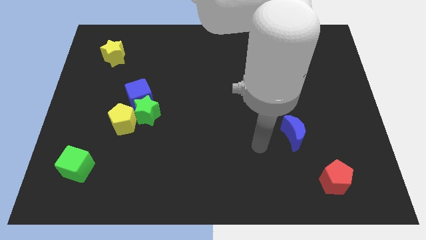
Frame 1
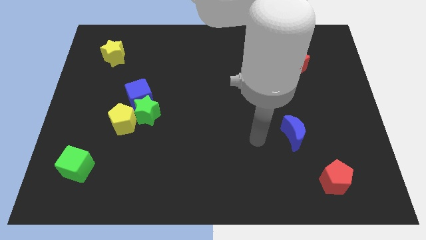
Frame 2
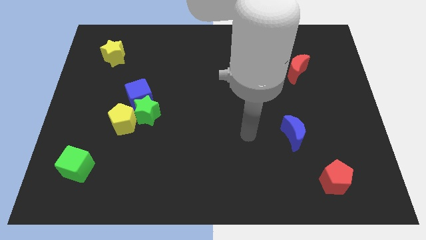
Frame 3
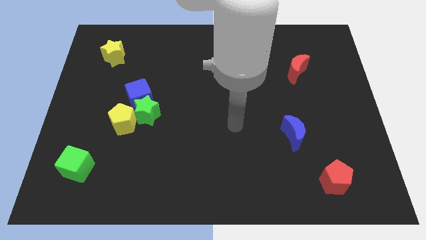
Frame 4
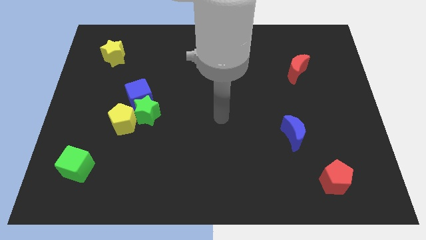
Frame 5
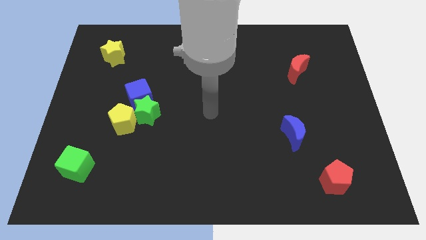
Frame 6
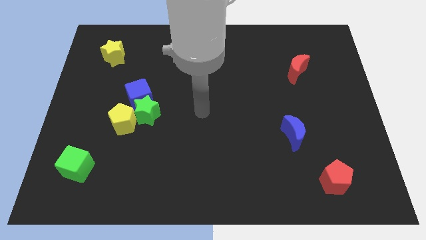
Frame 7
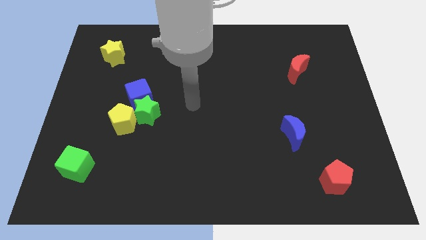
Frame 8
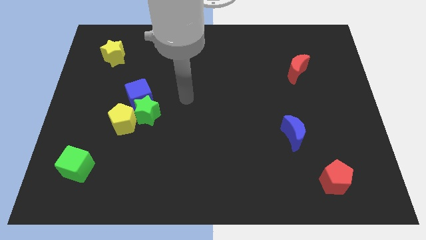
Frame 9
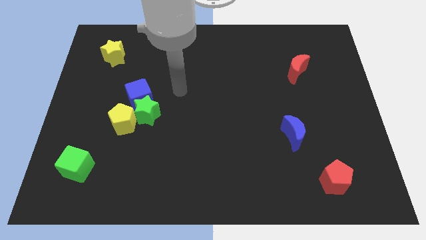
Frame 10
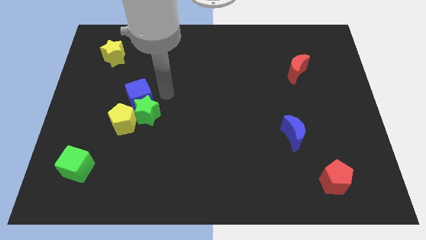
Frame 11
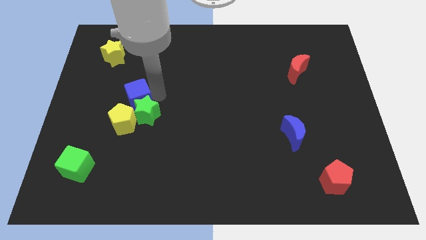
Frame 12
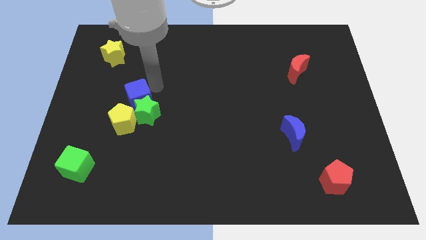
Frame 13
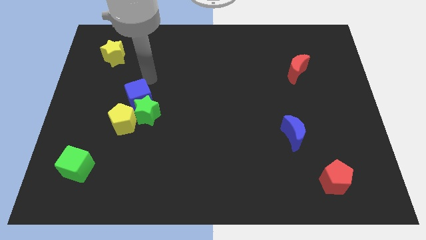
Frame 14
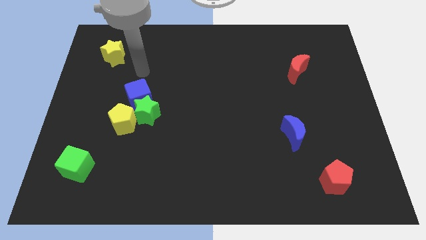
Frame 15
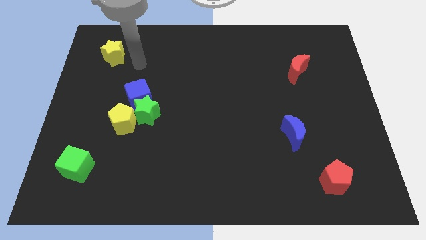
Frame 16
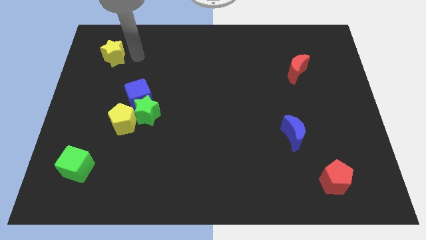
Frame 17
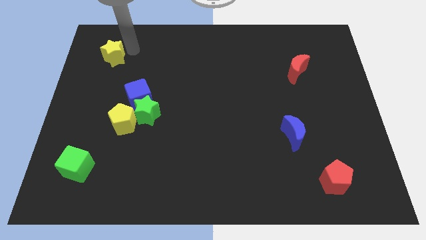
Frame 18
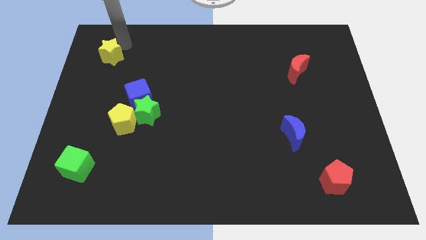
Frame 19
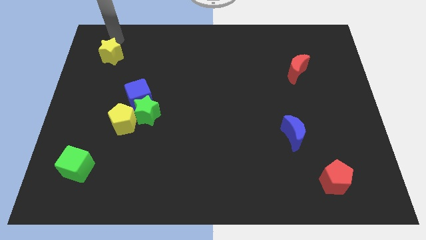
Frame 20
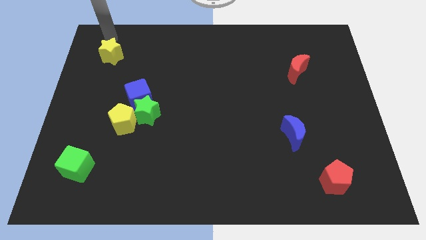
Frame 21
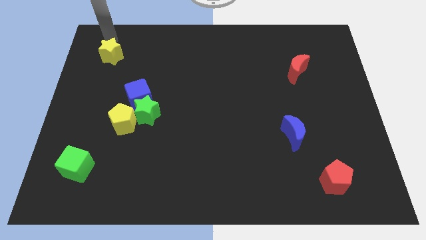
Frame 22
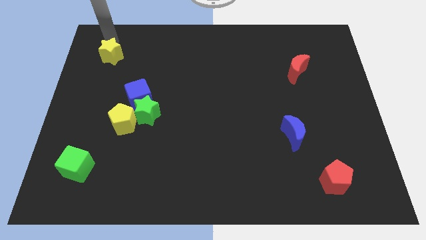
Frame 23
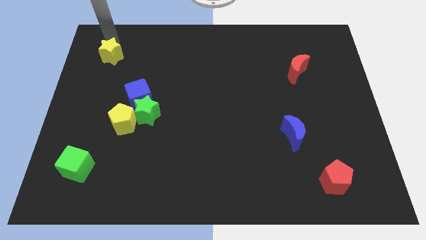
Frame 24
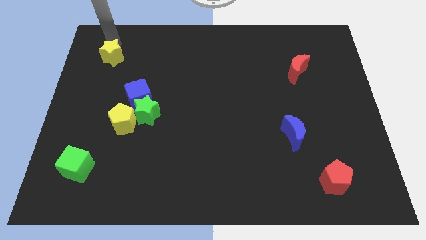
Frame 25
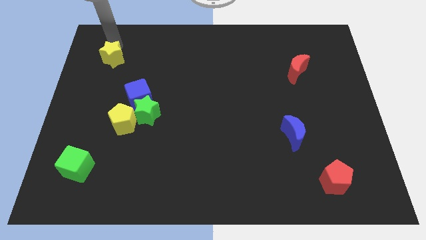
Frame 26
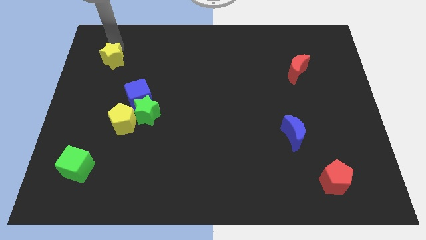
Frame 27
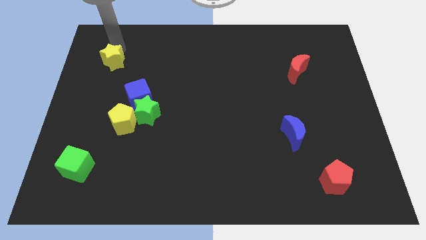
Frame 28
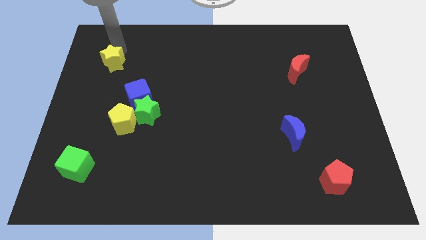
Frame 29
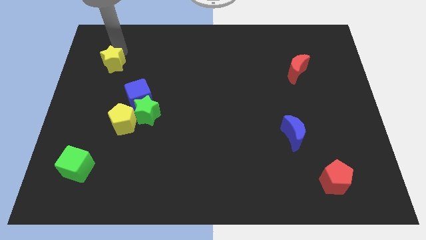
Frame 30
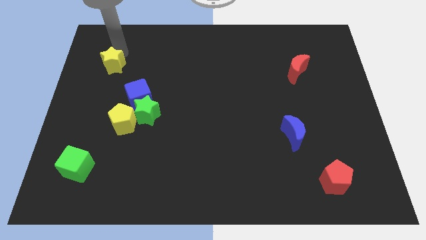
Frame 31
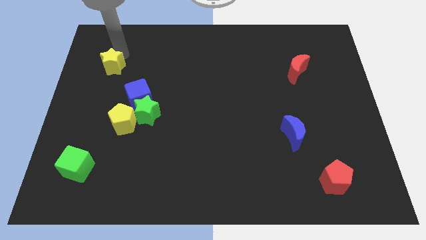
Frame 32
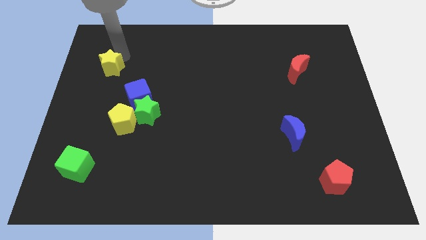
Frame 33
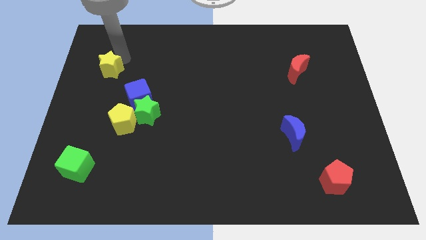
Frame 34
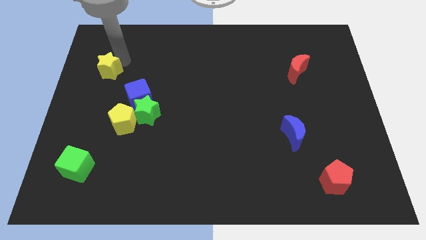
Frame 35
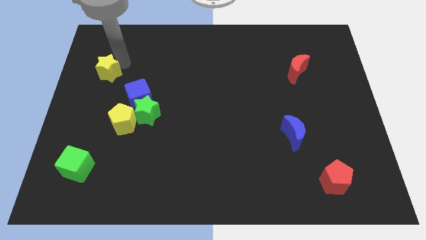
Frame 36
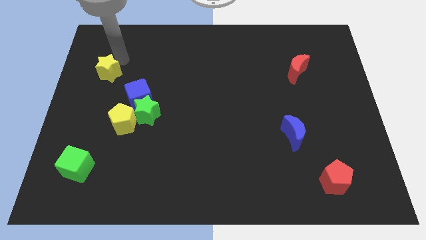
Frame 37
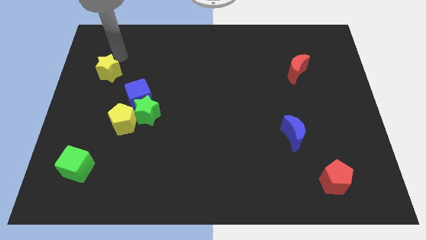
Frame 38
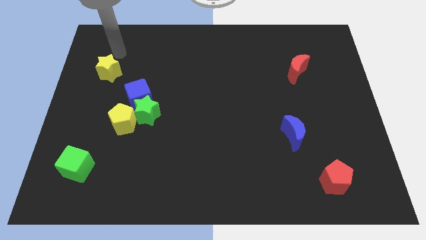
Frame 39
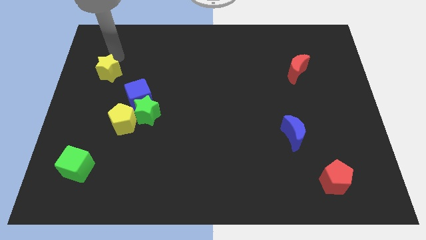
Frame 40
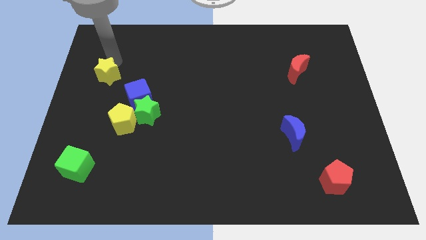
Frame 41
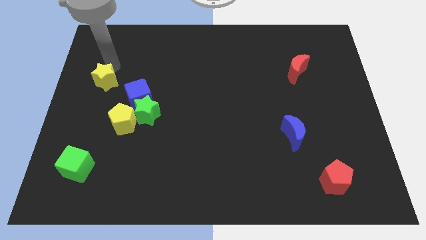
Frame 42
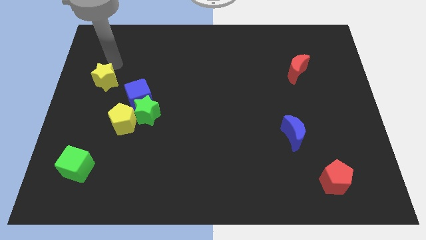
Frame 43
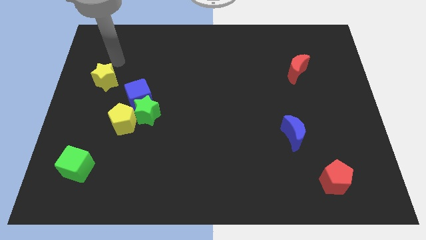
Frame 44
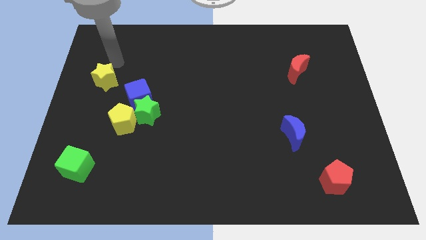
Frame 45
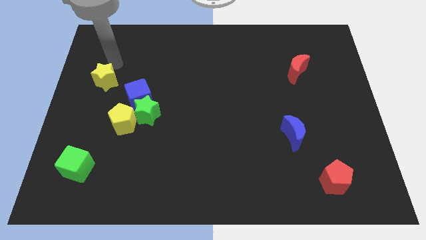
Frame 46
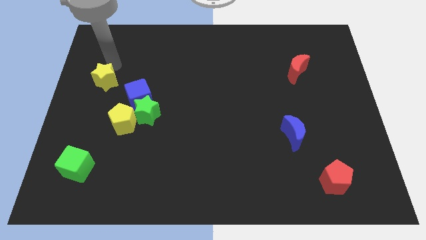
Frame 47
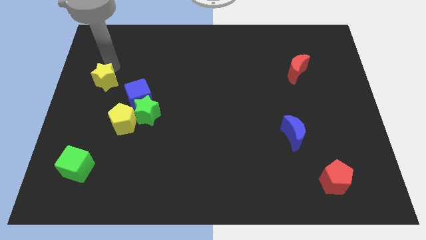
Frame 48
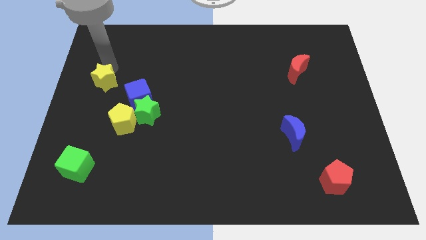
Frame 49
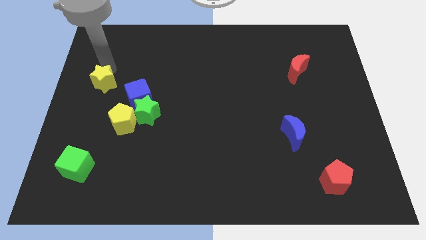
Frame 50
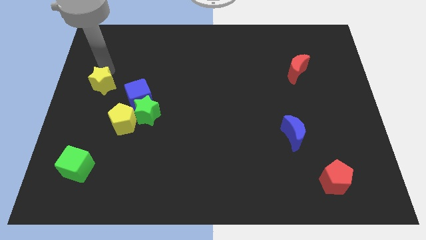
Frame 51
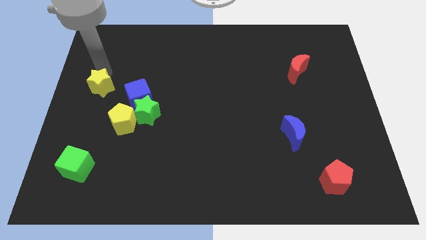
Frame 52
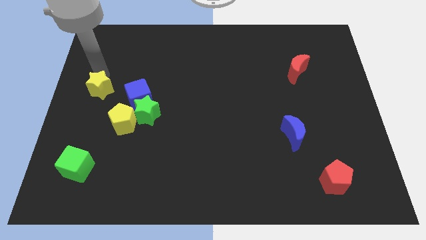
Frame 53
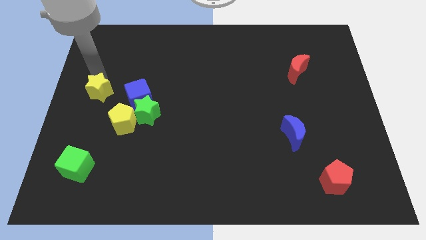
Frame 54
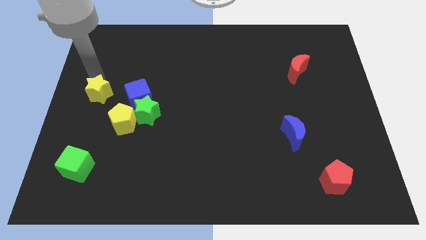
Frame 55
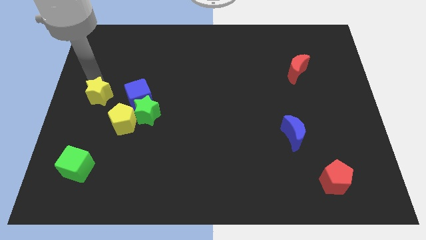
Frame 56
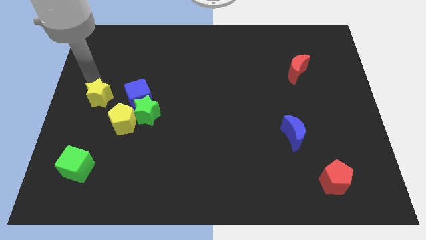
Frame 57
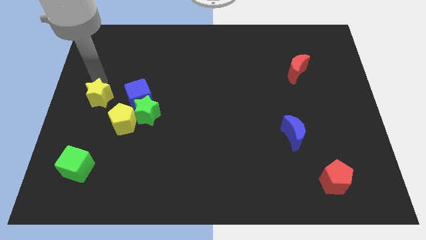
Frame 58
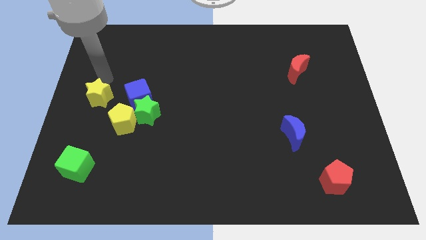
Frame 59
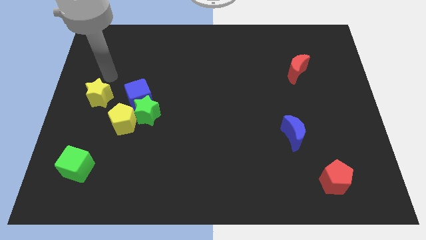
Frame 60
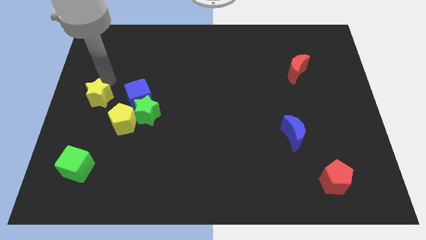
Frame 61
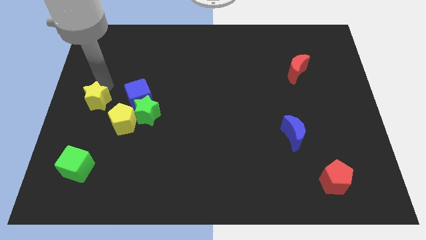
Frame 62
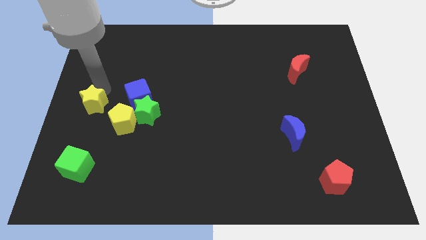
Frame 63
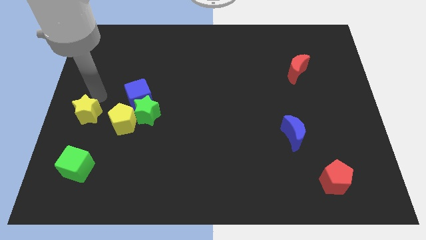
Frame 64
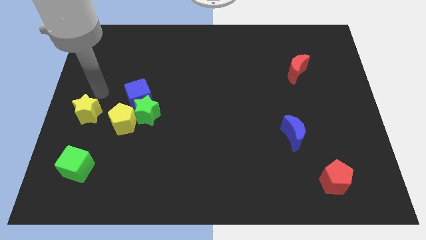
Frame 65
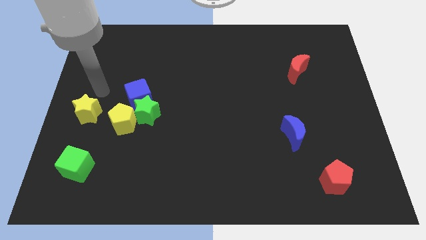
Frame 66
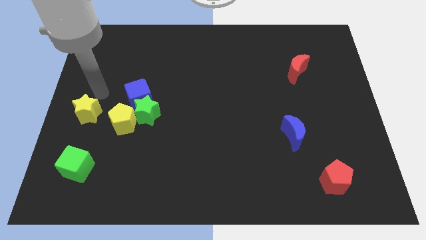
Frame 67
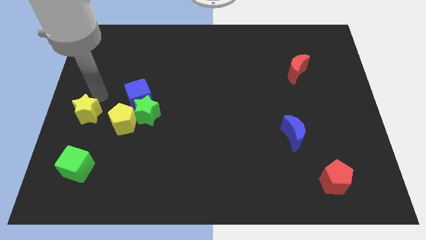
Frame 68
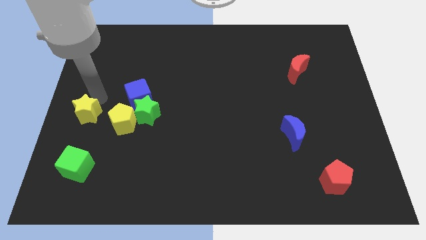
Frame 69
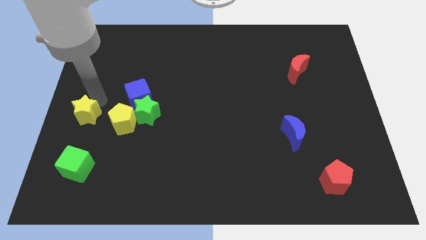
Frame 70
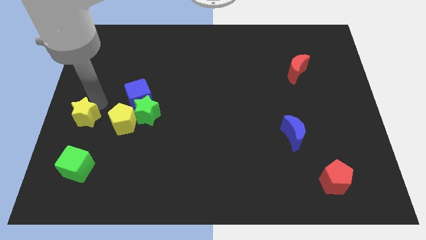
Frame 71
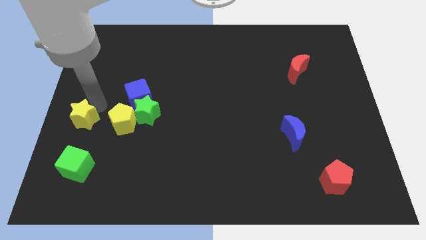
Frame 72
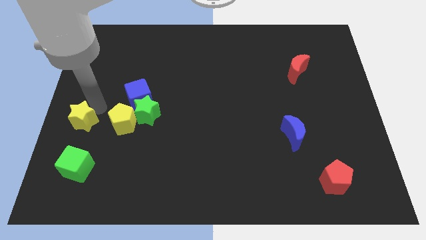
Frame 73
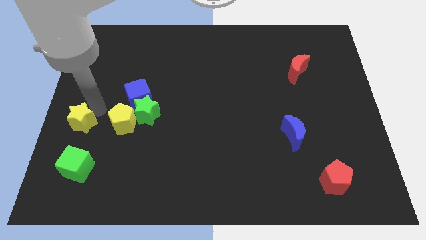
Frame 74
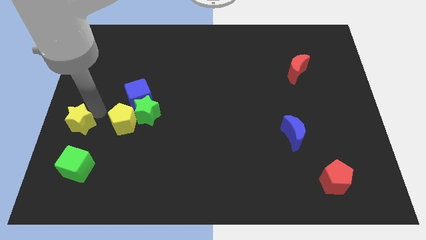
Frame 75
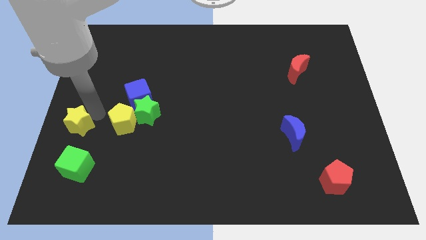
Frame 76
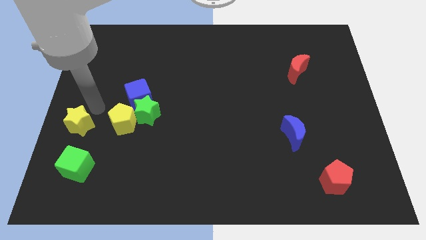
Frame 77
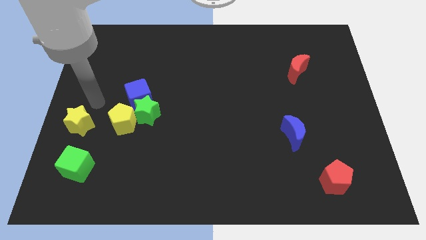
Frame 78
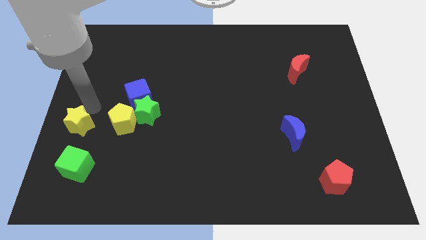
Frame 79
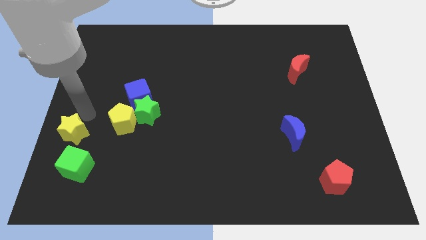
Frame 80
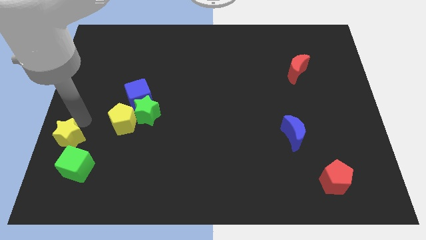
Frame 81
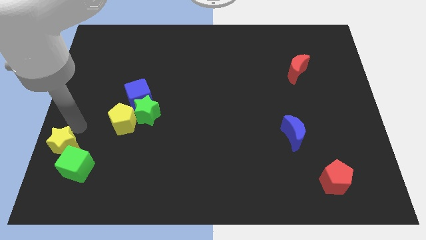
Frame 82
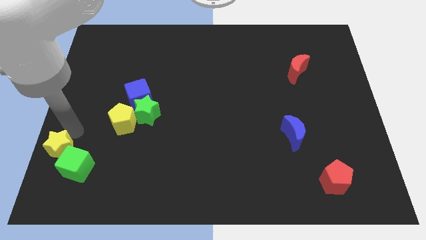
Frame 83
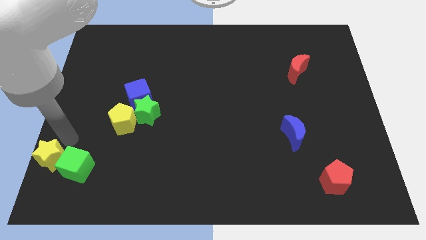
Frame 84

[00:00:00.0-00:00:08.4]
slide the yellow star to the lower left corner
